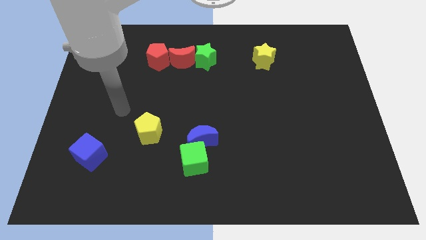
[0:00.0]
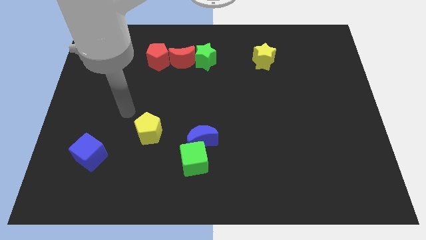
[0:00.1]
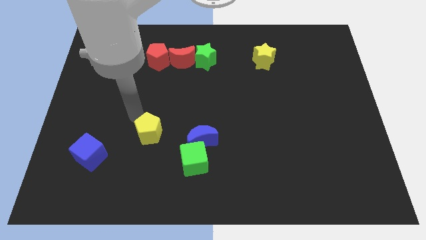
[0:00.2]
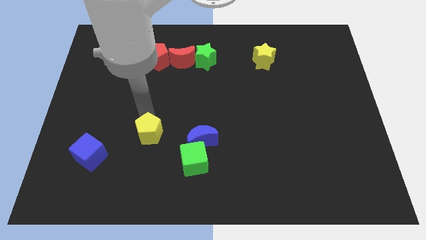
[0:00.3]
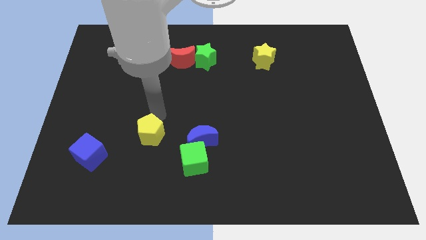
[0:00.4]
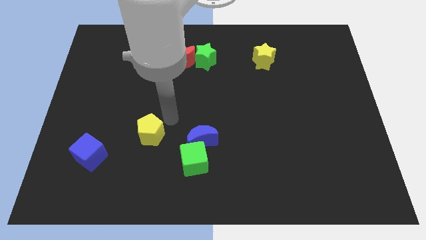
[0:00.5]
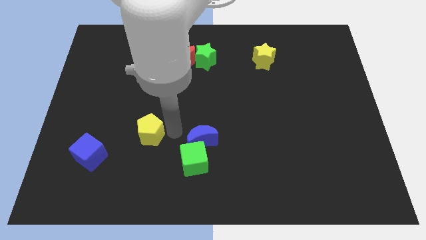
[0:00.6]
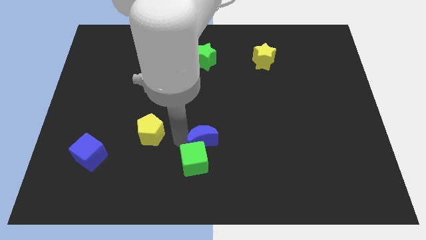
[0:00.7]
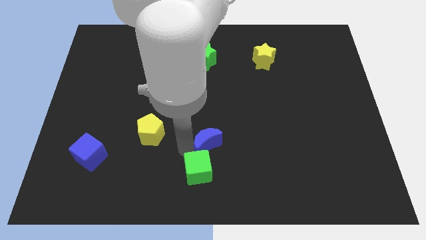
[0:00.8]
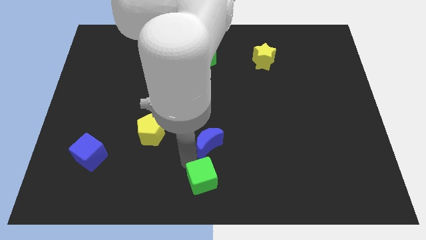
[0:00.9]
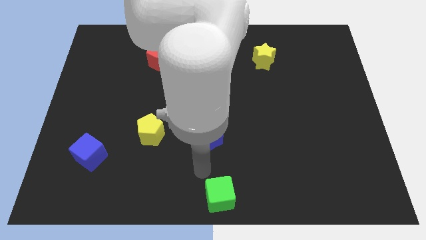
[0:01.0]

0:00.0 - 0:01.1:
separate the blue moon from the green cube

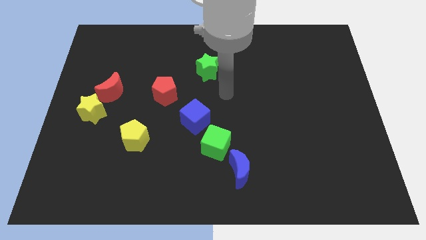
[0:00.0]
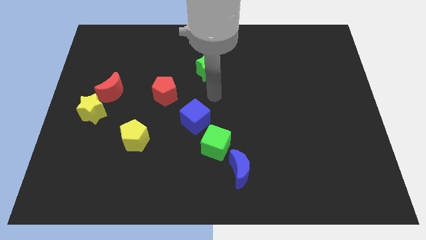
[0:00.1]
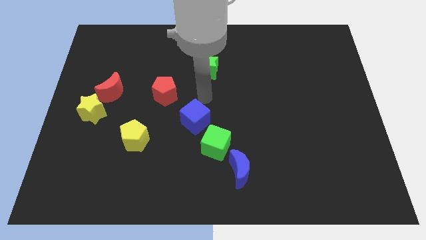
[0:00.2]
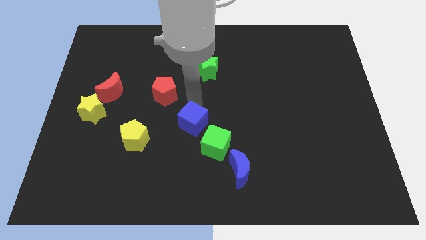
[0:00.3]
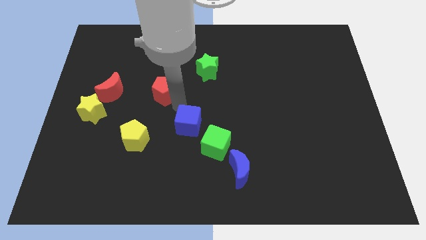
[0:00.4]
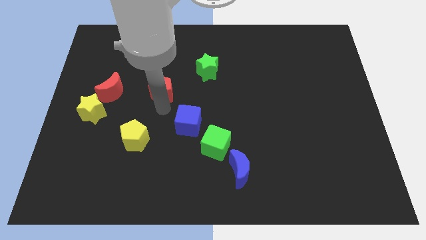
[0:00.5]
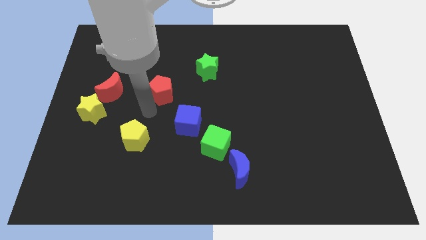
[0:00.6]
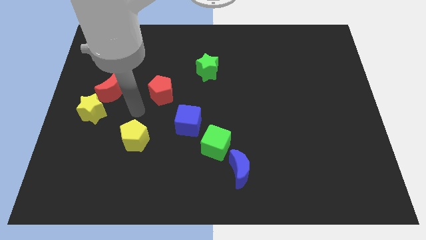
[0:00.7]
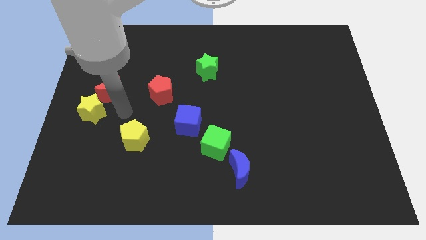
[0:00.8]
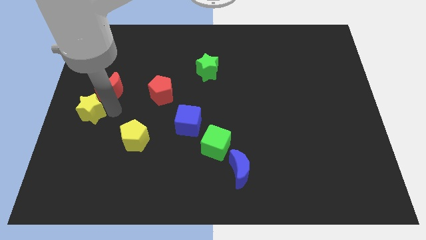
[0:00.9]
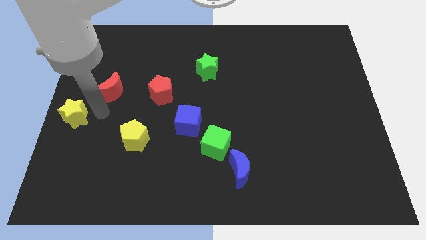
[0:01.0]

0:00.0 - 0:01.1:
move the red moon away from the yellow star

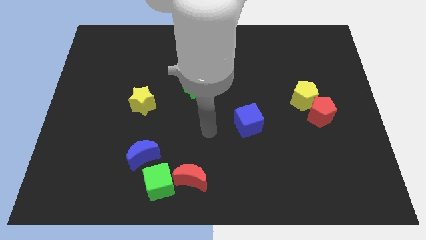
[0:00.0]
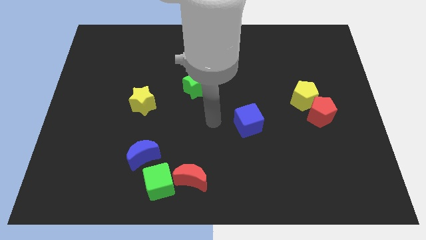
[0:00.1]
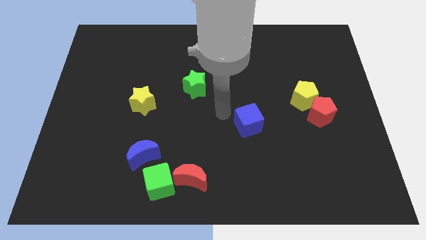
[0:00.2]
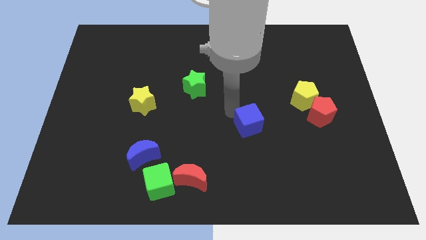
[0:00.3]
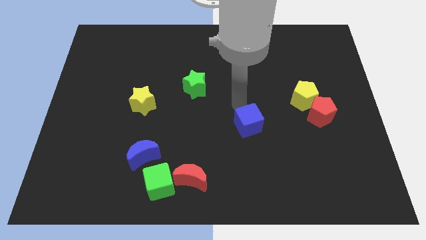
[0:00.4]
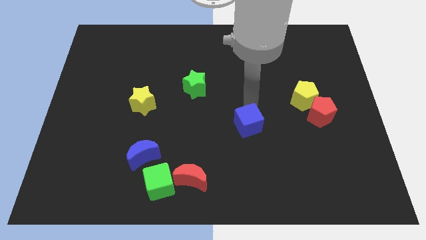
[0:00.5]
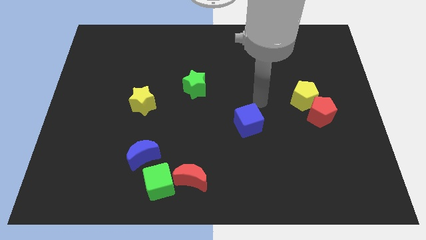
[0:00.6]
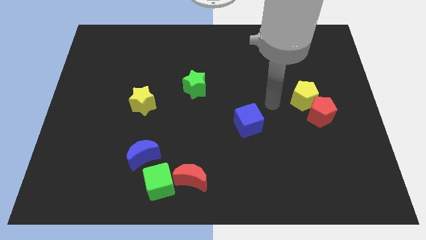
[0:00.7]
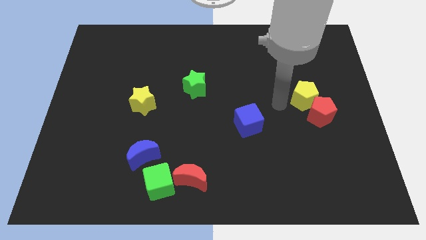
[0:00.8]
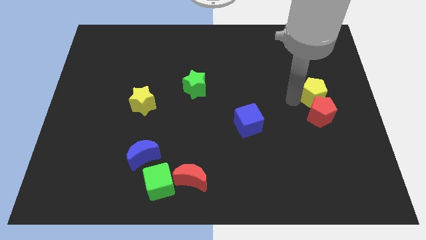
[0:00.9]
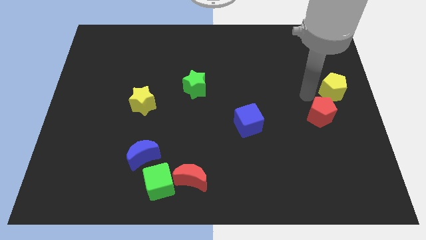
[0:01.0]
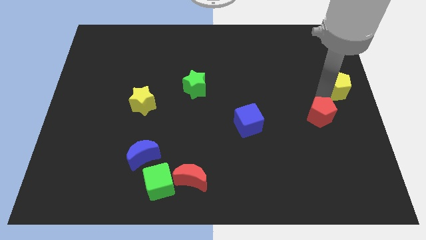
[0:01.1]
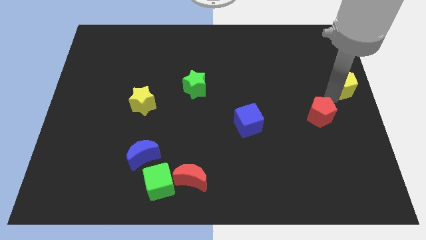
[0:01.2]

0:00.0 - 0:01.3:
pull the red pentagon apart from the yellow pentagon

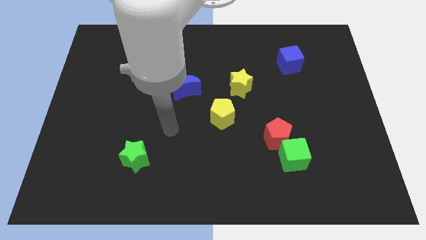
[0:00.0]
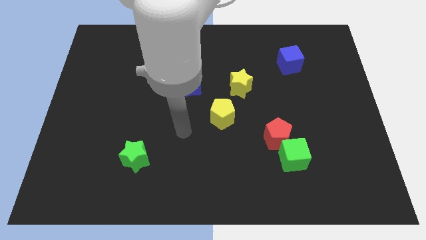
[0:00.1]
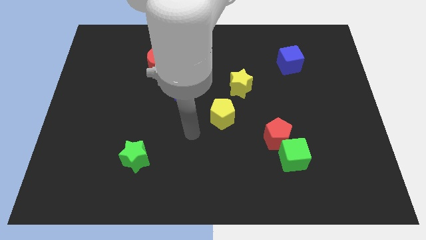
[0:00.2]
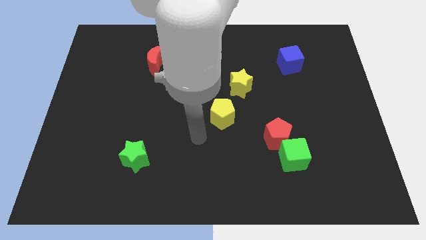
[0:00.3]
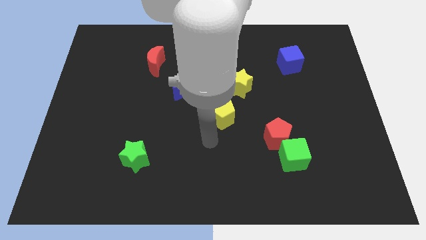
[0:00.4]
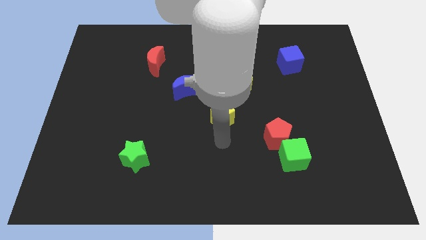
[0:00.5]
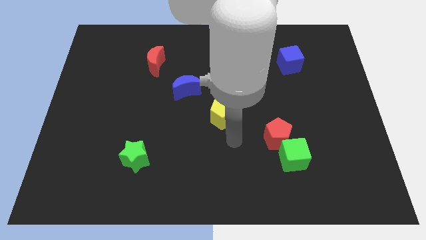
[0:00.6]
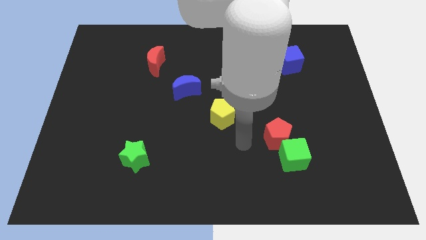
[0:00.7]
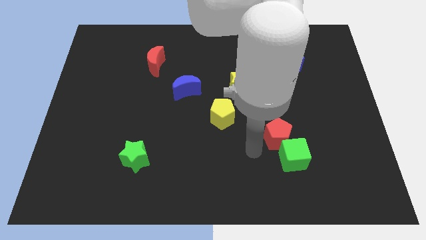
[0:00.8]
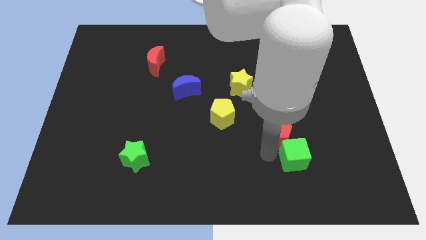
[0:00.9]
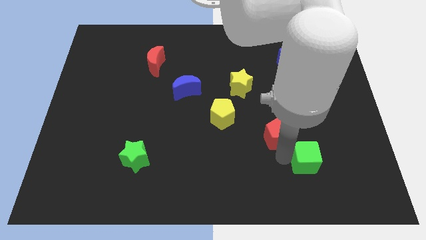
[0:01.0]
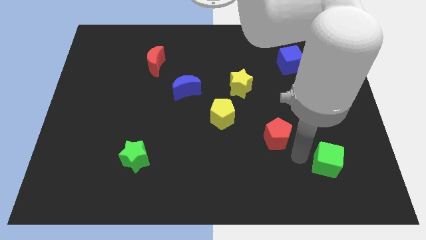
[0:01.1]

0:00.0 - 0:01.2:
pull the red pentagon apart from the green cube

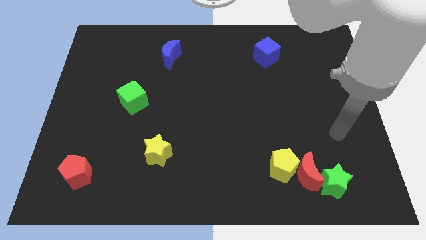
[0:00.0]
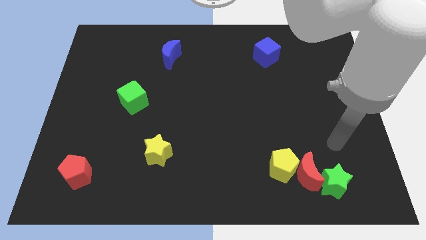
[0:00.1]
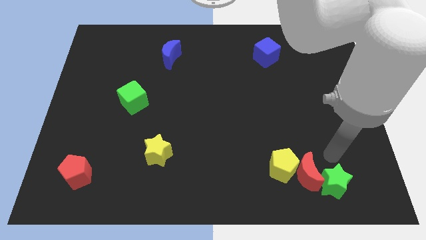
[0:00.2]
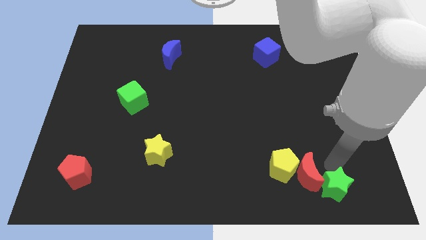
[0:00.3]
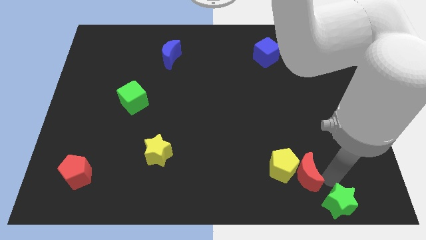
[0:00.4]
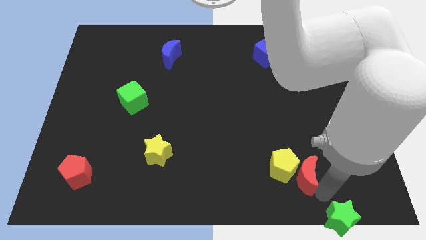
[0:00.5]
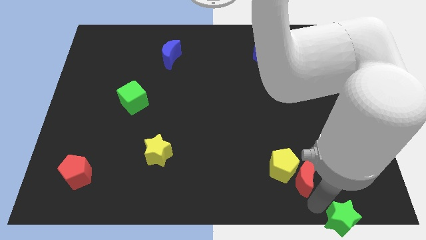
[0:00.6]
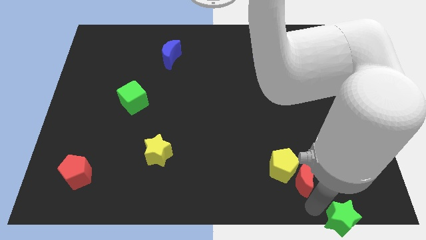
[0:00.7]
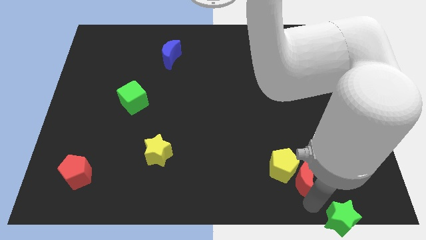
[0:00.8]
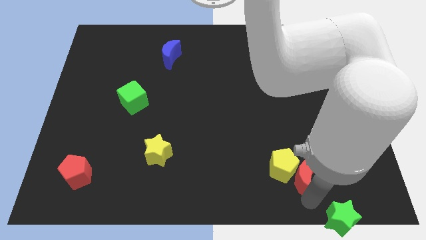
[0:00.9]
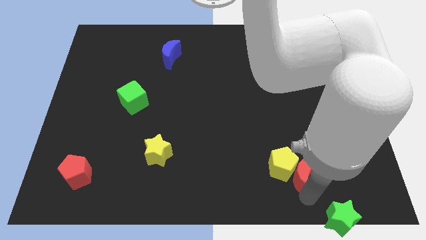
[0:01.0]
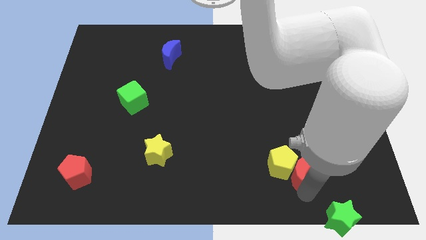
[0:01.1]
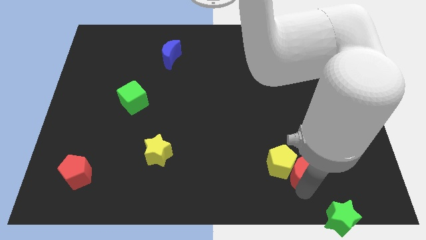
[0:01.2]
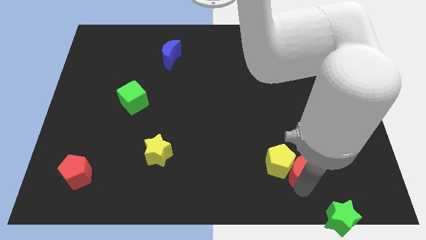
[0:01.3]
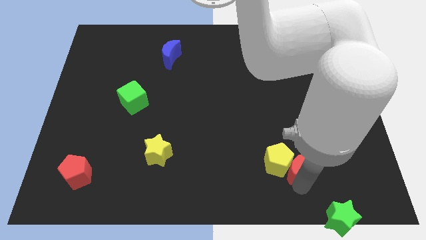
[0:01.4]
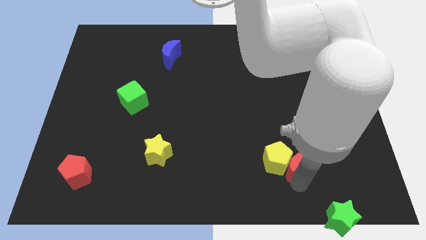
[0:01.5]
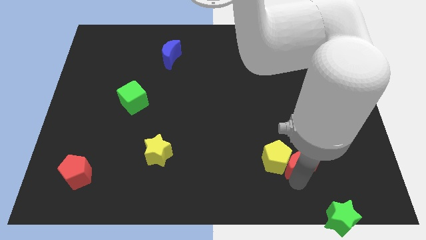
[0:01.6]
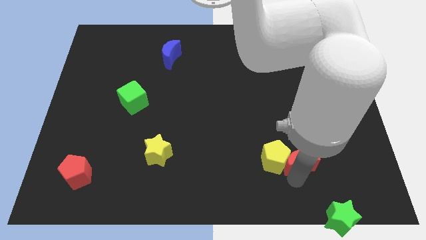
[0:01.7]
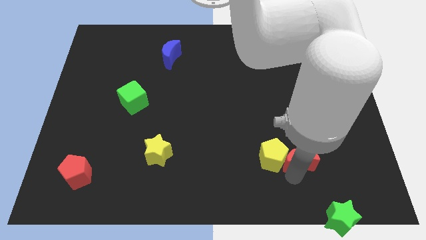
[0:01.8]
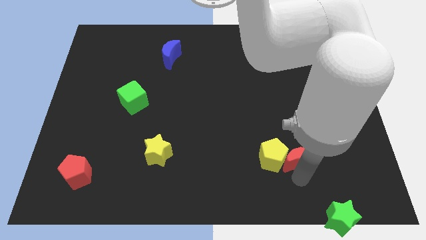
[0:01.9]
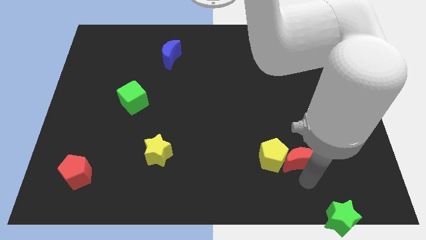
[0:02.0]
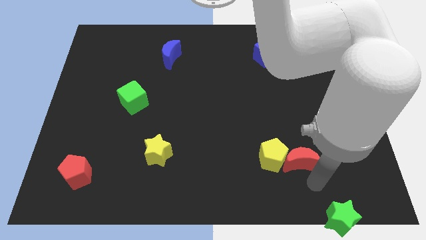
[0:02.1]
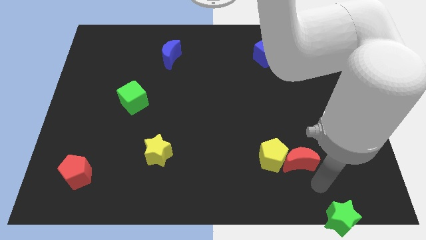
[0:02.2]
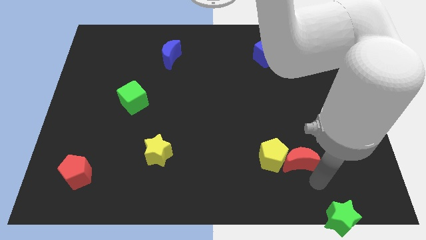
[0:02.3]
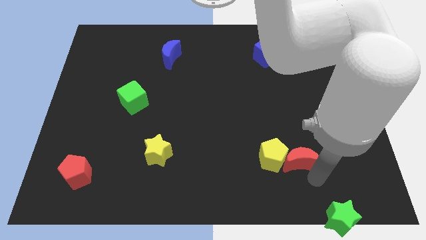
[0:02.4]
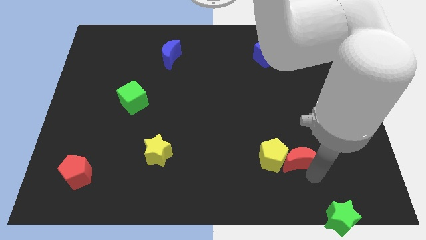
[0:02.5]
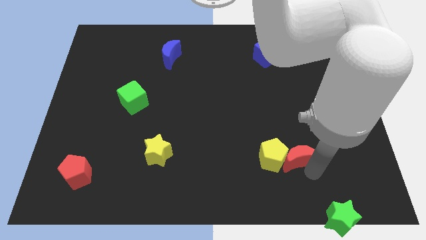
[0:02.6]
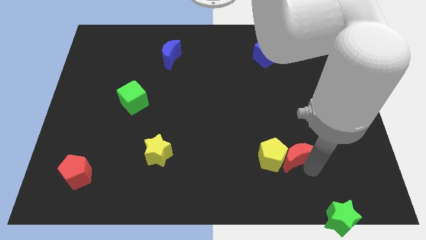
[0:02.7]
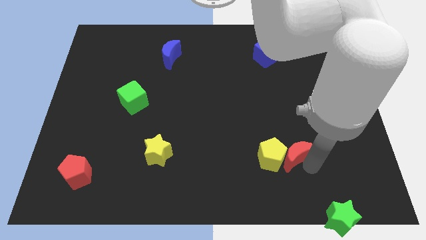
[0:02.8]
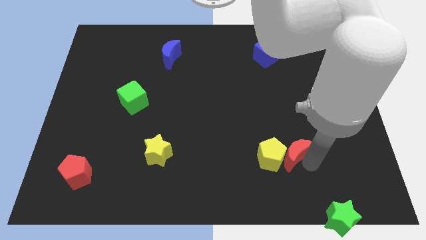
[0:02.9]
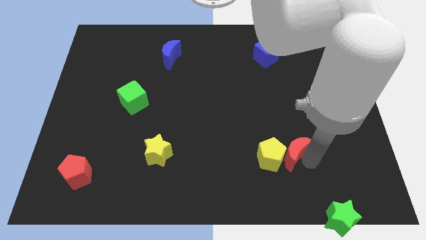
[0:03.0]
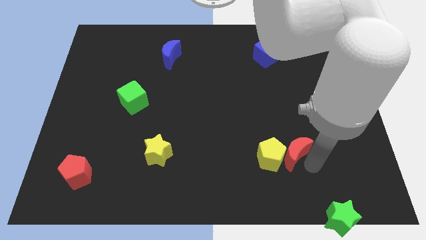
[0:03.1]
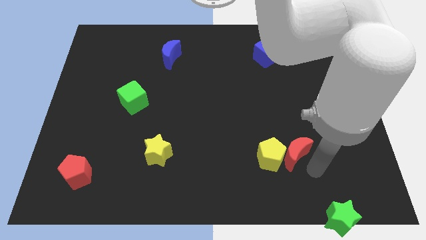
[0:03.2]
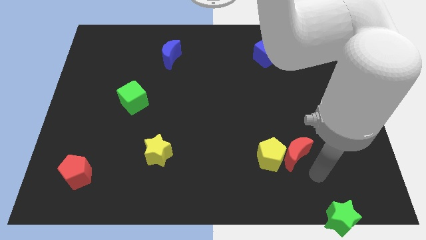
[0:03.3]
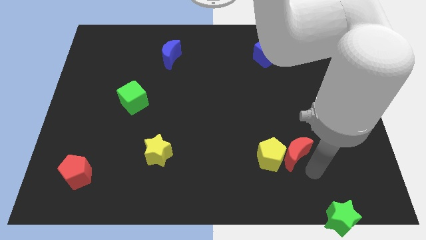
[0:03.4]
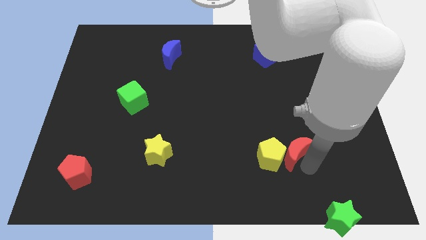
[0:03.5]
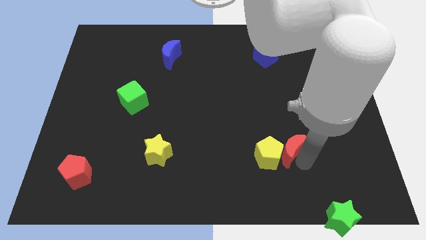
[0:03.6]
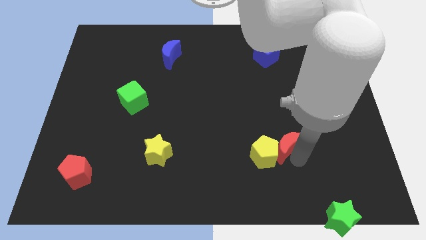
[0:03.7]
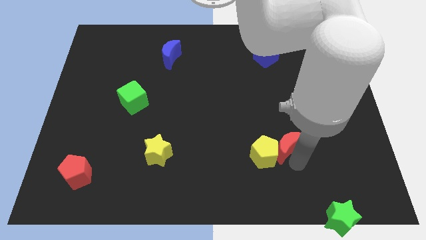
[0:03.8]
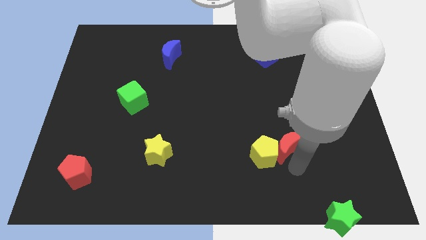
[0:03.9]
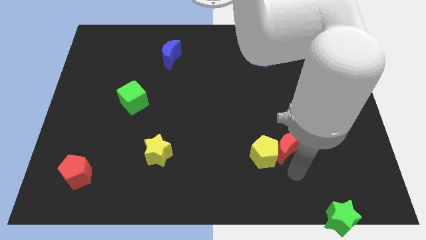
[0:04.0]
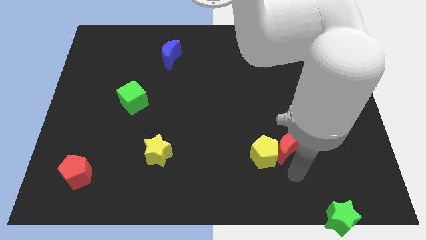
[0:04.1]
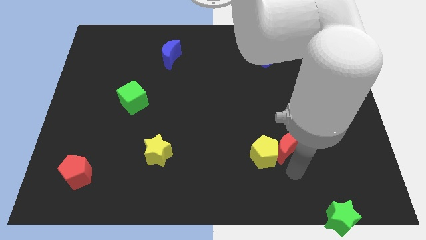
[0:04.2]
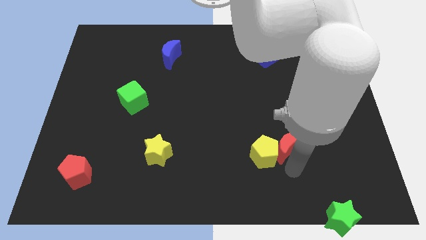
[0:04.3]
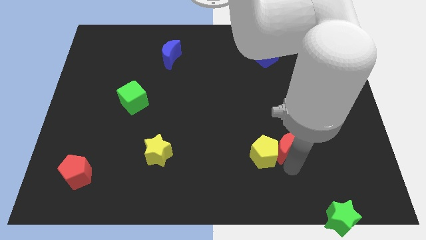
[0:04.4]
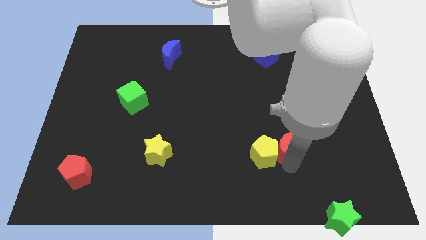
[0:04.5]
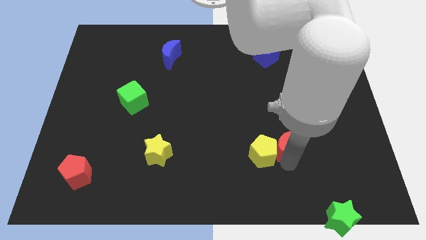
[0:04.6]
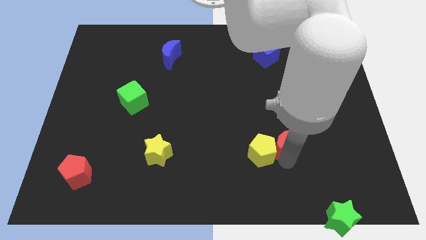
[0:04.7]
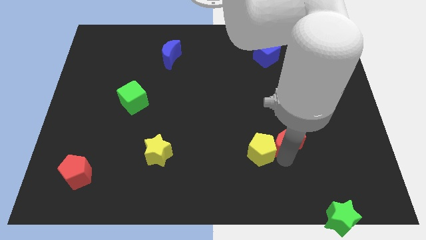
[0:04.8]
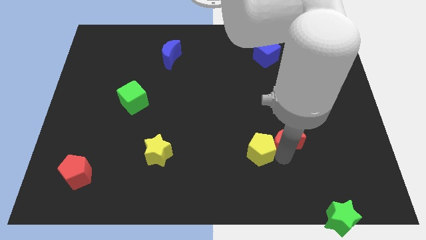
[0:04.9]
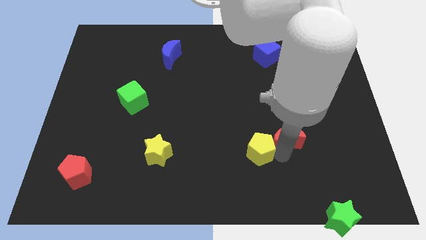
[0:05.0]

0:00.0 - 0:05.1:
pull the red moon apart from the yellow pentagon and green star
